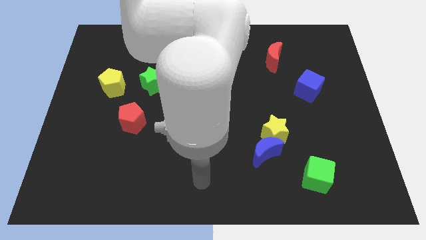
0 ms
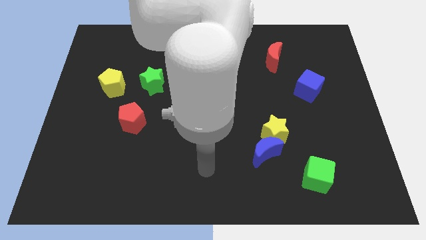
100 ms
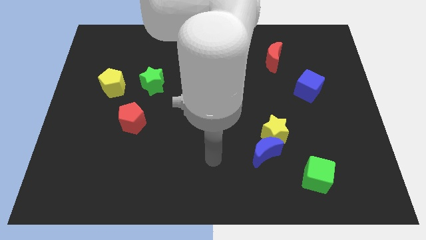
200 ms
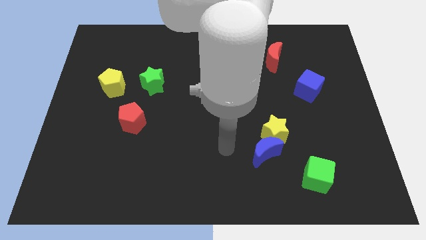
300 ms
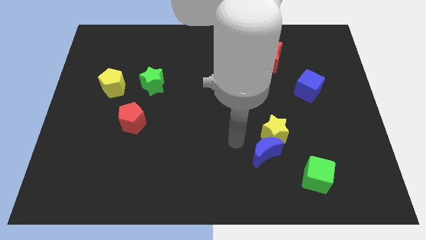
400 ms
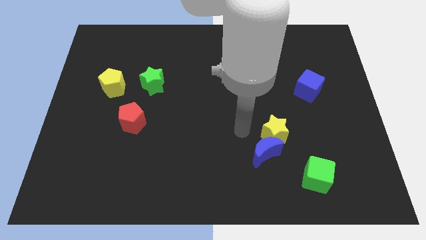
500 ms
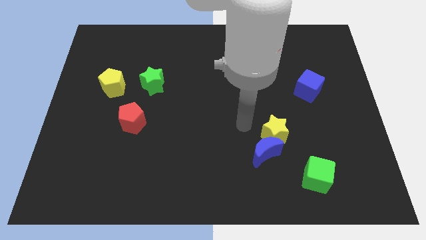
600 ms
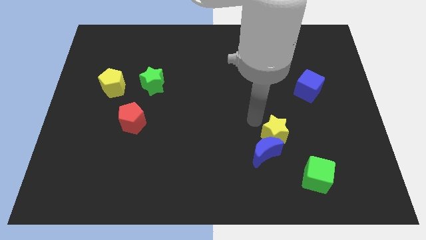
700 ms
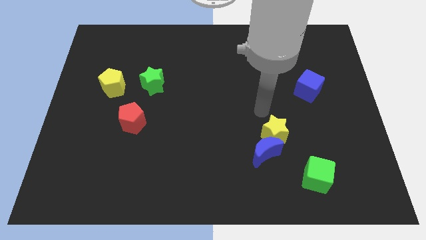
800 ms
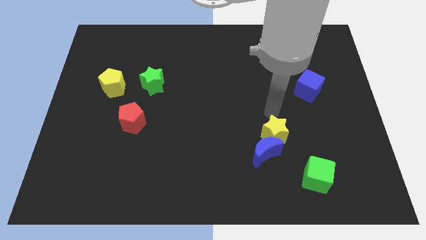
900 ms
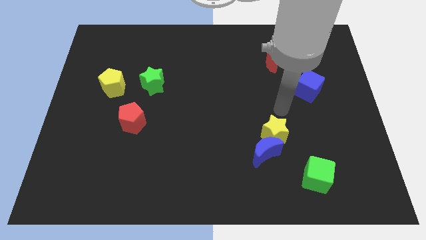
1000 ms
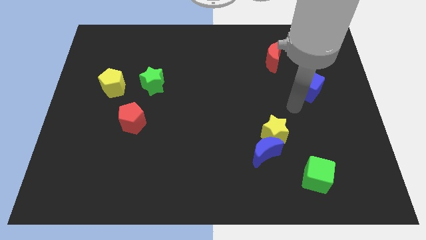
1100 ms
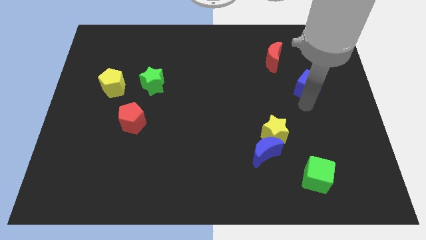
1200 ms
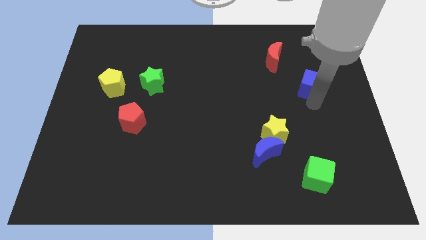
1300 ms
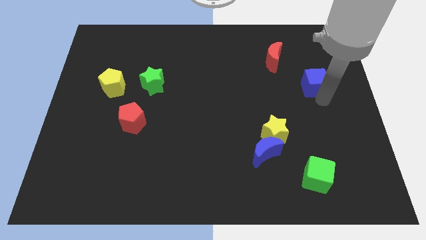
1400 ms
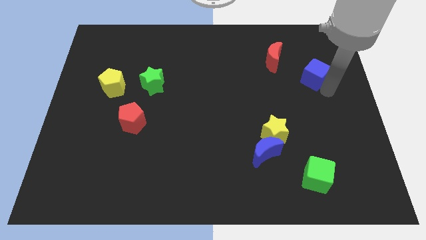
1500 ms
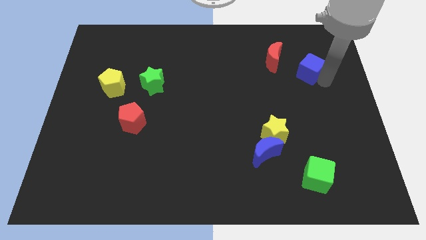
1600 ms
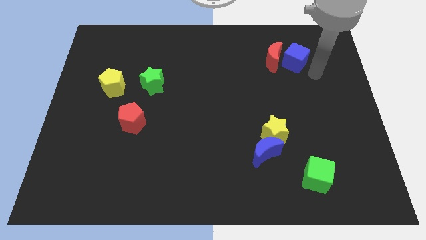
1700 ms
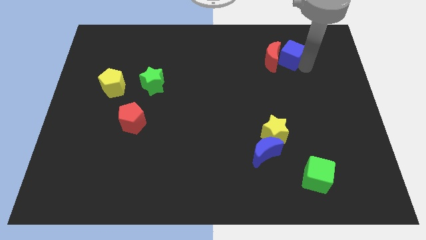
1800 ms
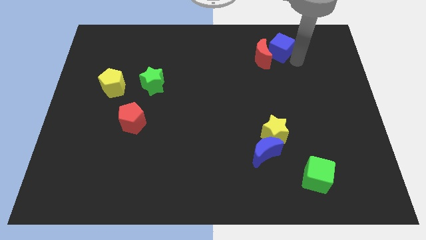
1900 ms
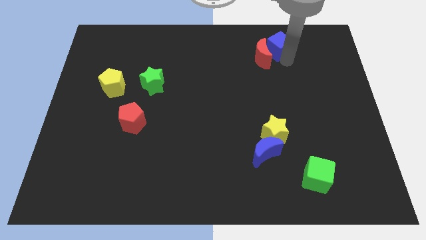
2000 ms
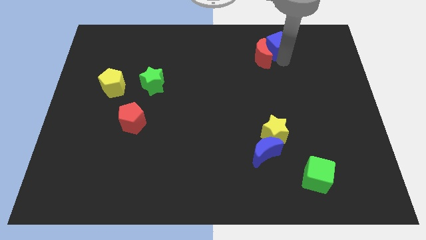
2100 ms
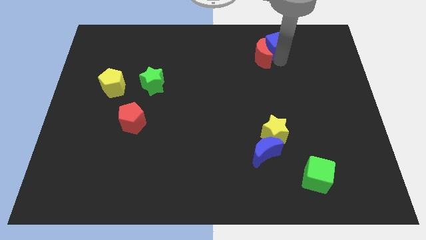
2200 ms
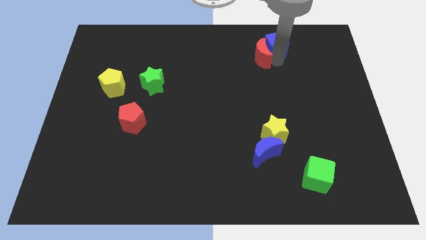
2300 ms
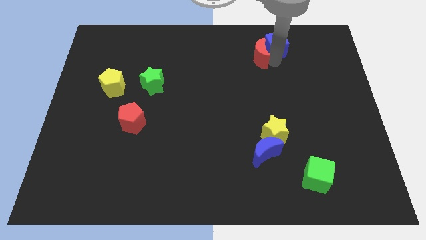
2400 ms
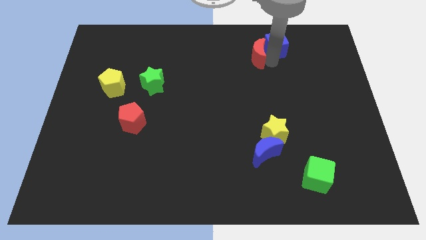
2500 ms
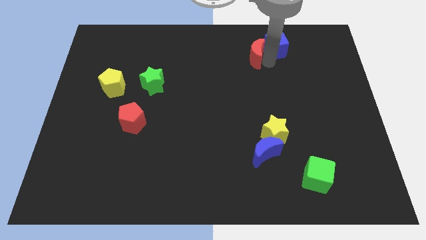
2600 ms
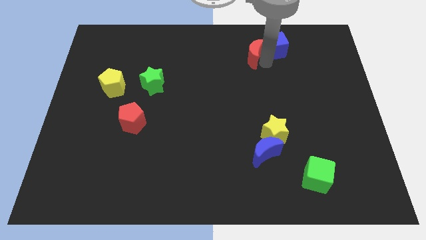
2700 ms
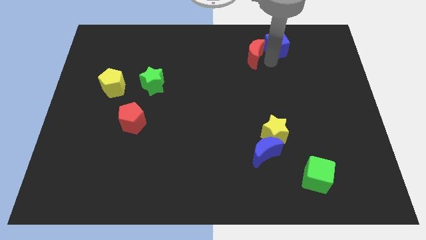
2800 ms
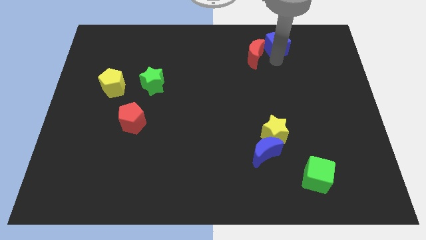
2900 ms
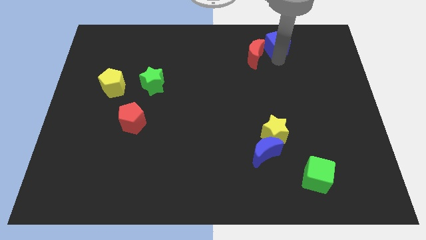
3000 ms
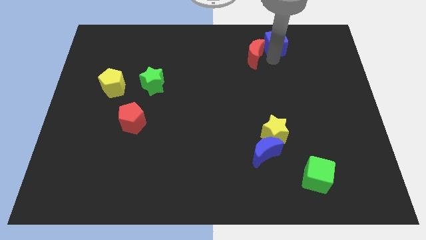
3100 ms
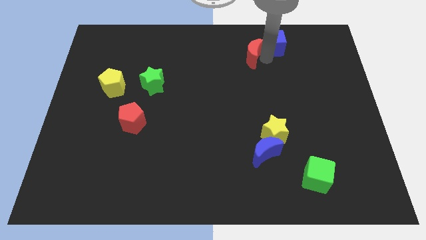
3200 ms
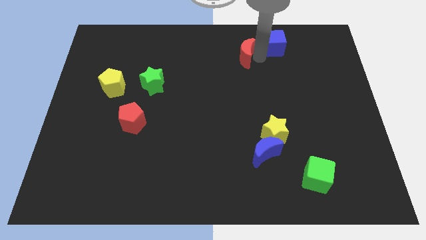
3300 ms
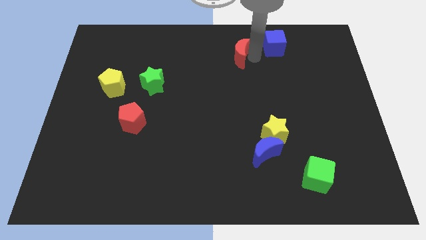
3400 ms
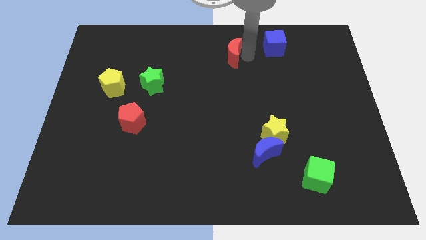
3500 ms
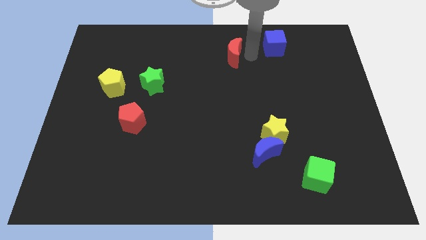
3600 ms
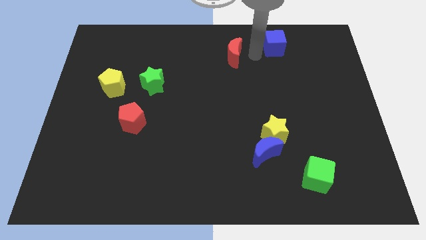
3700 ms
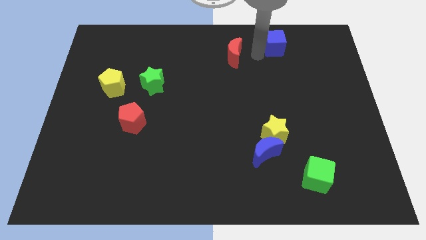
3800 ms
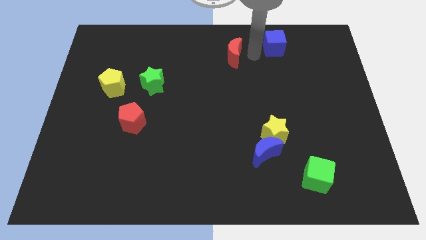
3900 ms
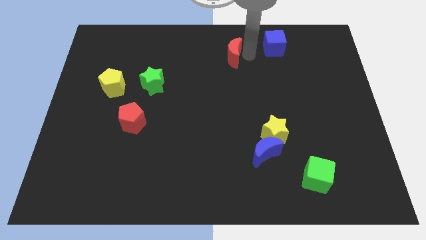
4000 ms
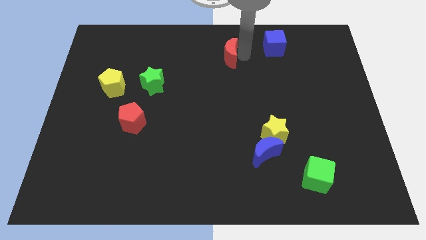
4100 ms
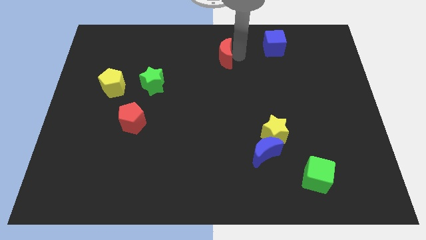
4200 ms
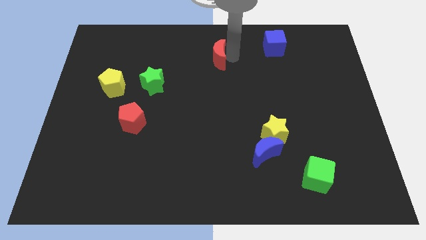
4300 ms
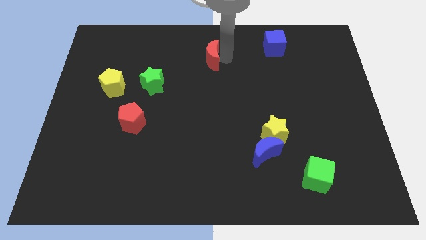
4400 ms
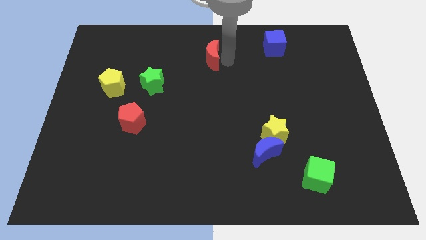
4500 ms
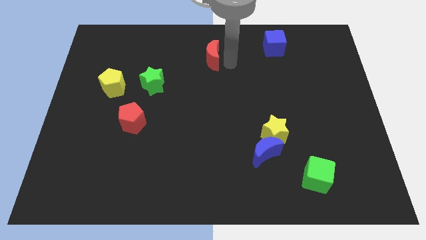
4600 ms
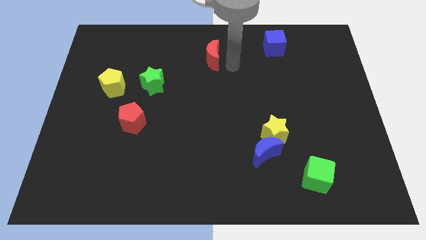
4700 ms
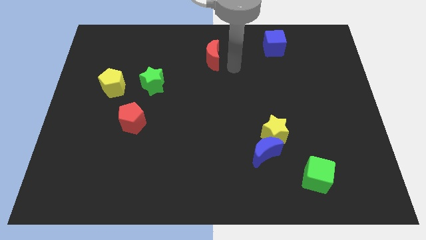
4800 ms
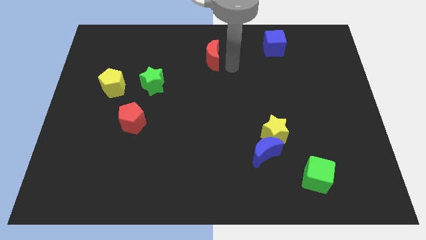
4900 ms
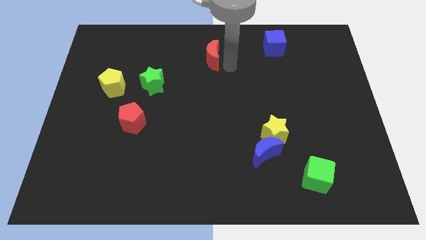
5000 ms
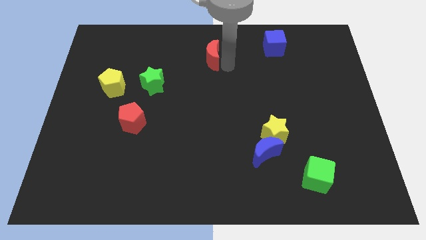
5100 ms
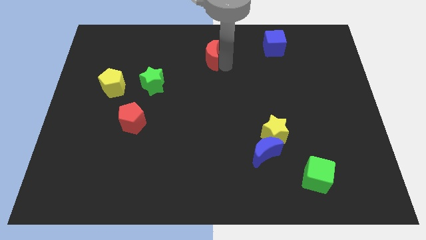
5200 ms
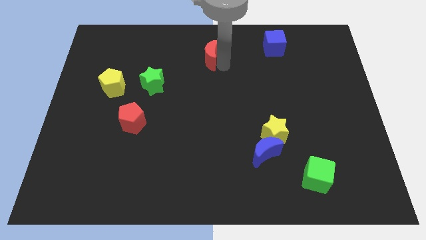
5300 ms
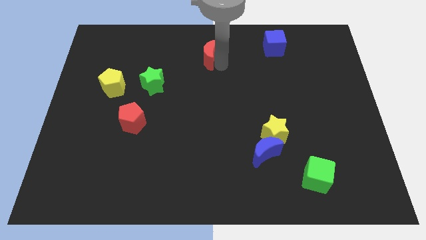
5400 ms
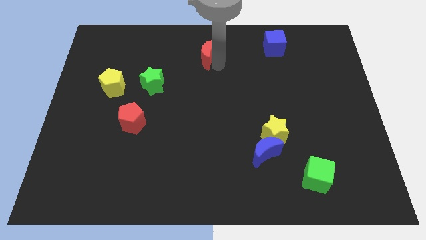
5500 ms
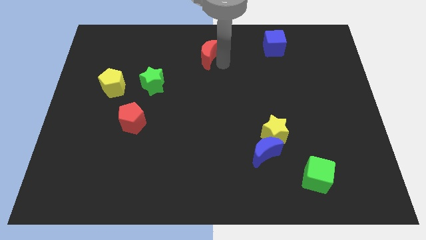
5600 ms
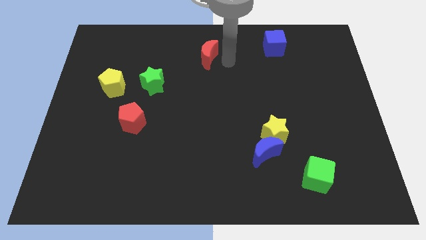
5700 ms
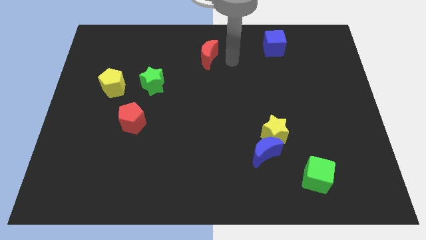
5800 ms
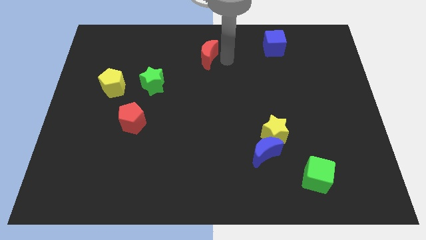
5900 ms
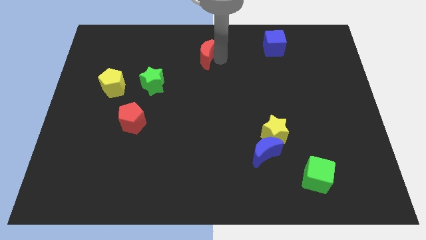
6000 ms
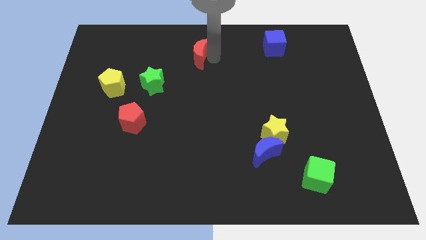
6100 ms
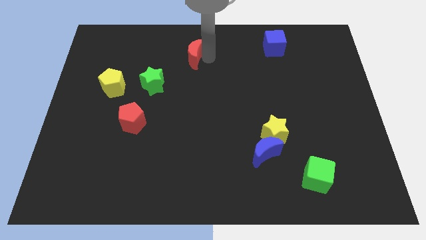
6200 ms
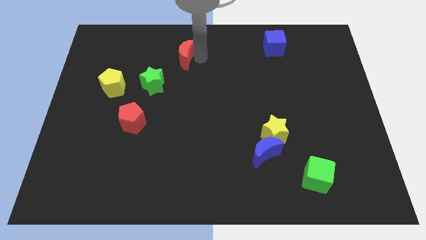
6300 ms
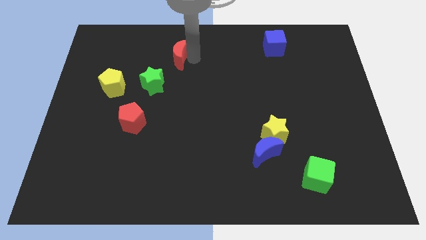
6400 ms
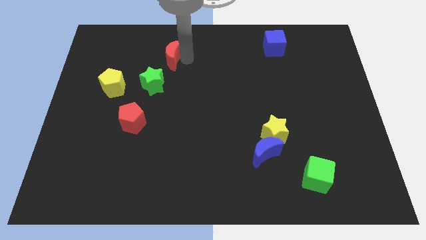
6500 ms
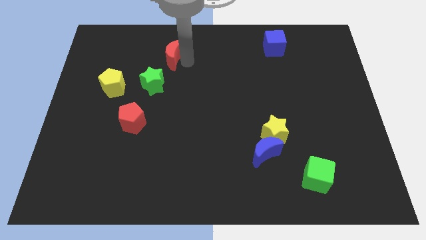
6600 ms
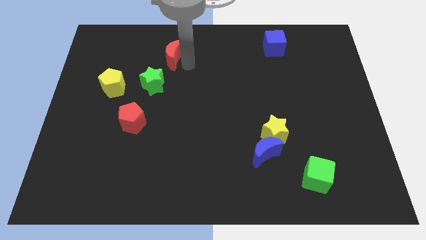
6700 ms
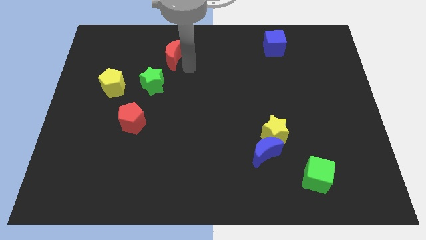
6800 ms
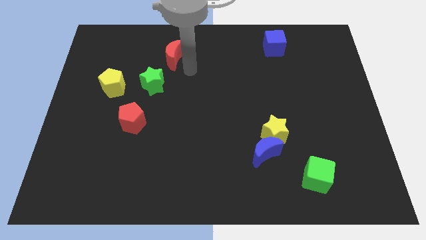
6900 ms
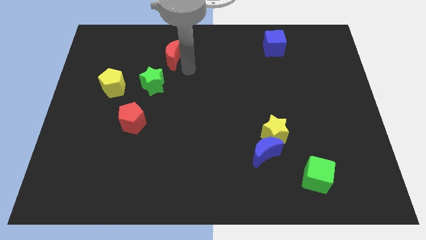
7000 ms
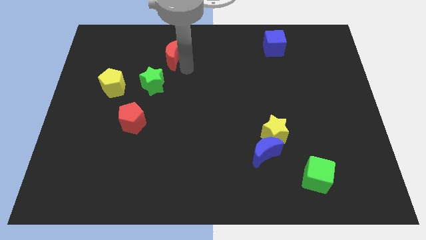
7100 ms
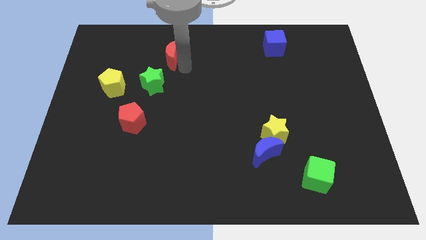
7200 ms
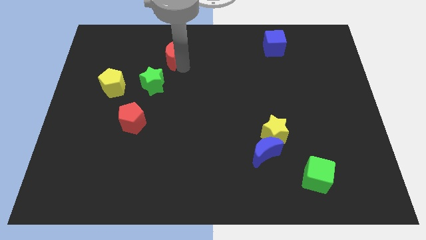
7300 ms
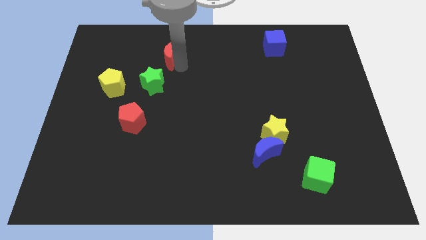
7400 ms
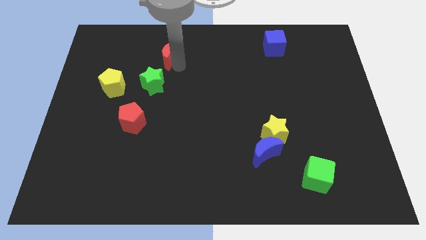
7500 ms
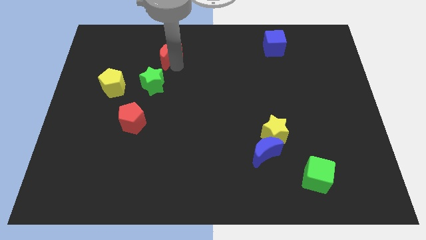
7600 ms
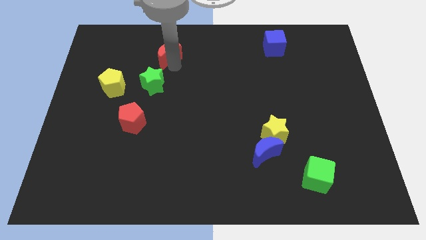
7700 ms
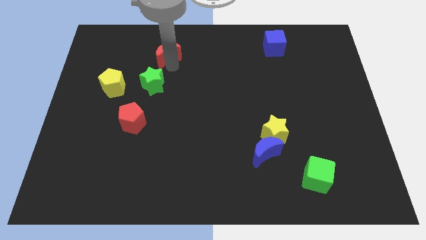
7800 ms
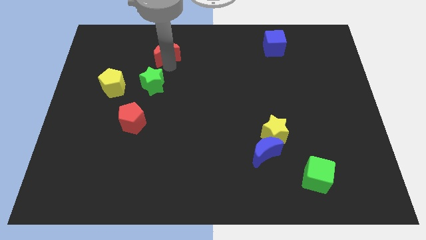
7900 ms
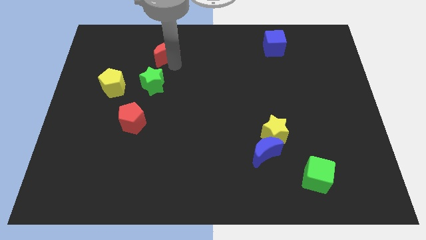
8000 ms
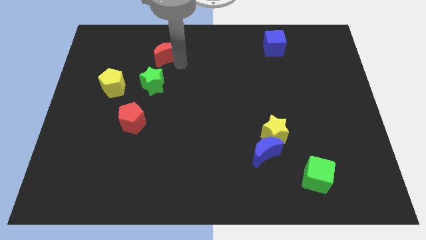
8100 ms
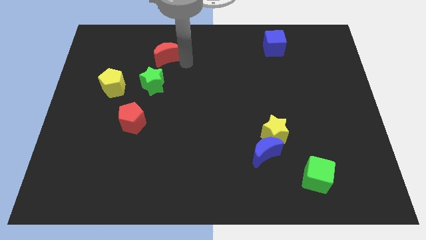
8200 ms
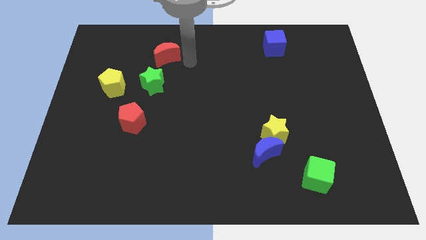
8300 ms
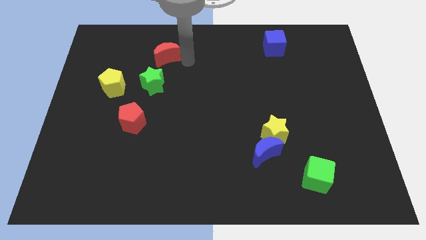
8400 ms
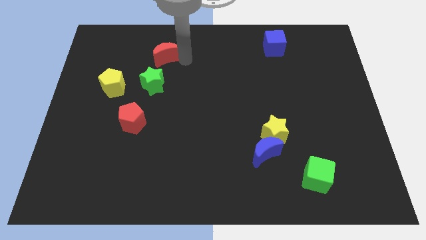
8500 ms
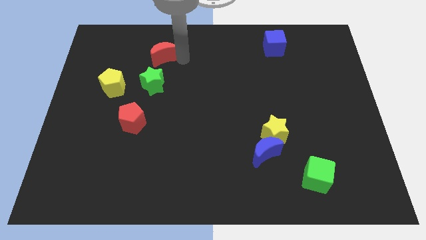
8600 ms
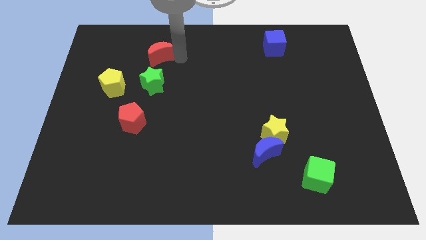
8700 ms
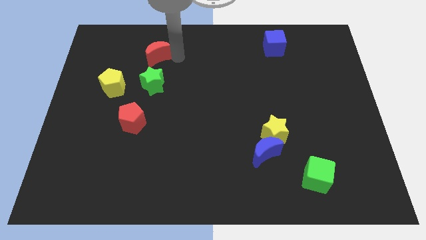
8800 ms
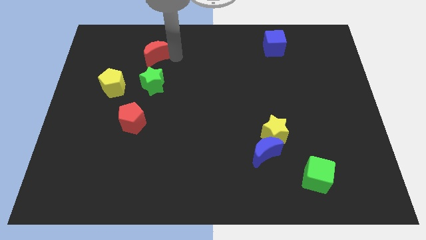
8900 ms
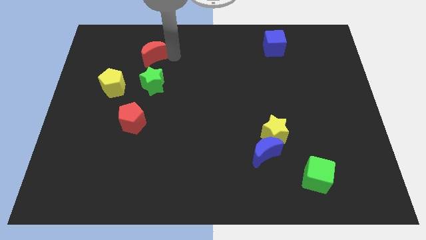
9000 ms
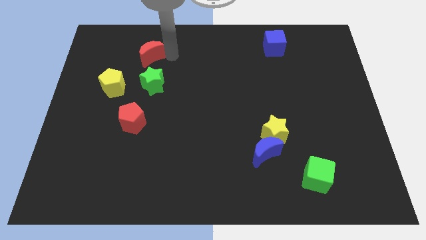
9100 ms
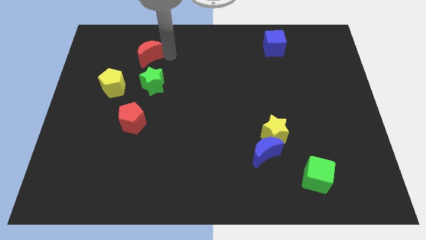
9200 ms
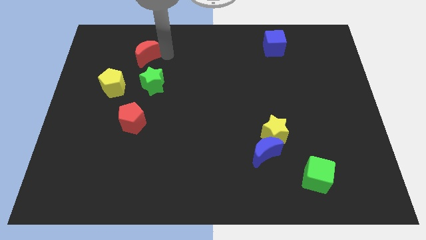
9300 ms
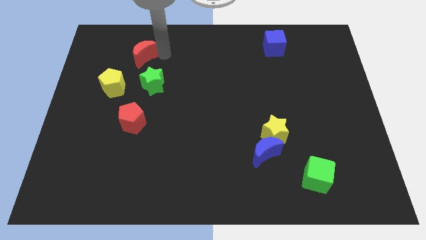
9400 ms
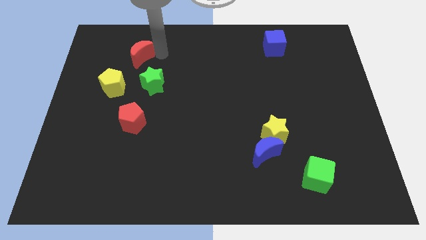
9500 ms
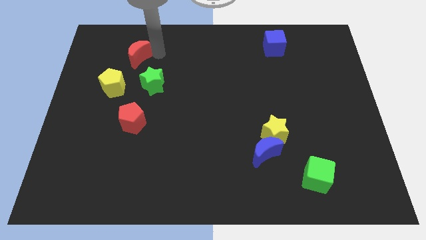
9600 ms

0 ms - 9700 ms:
push the red moon to the top side of the yellow pentagon
